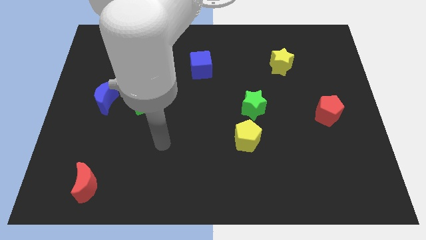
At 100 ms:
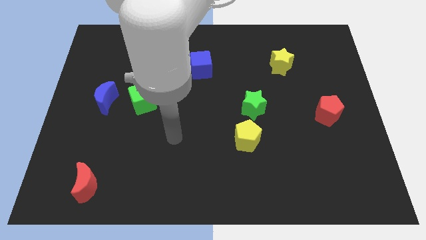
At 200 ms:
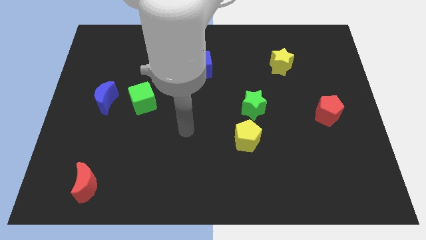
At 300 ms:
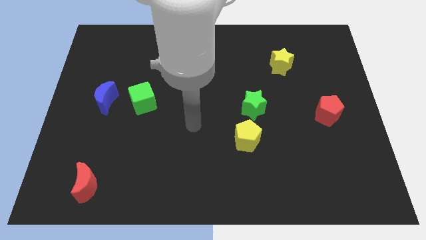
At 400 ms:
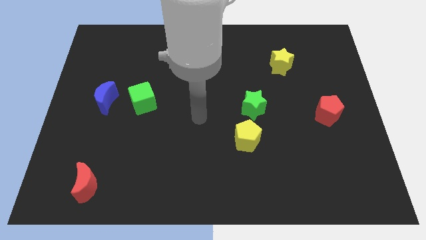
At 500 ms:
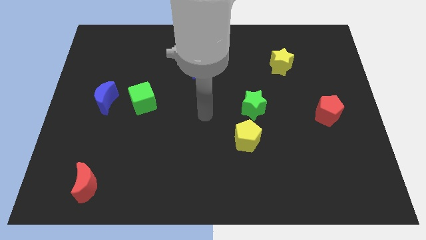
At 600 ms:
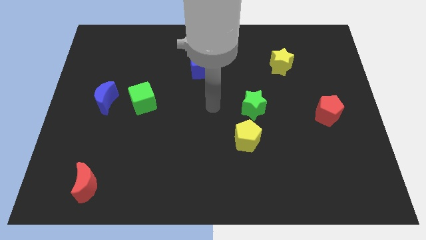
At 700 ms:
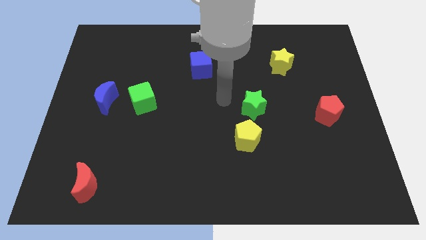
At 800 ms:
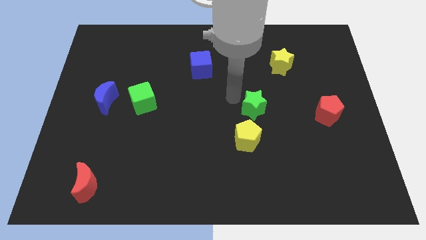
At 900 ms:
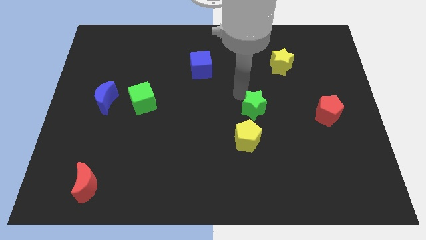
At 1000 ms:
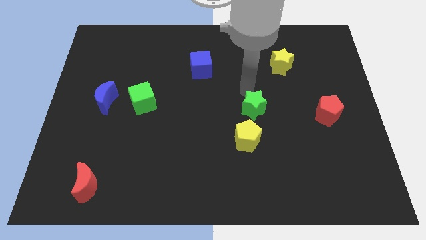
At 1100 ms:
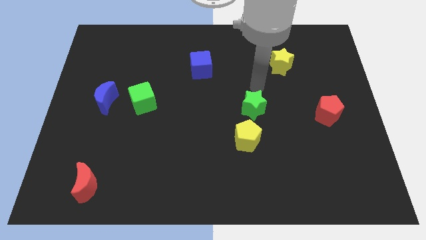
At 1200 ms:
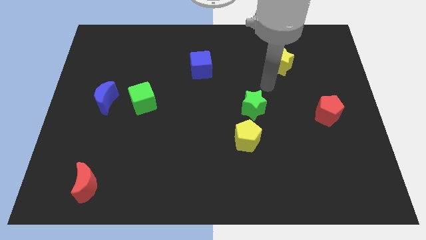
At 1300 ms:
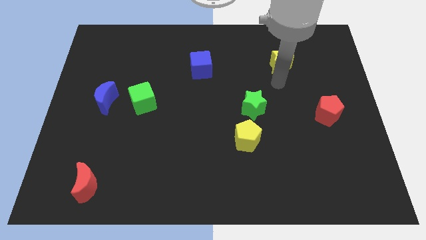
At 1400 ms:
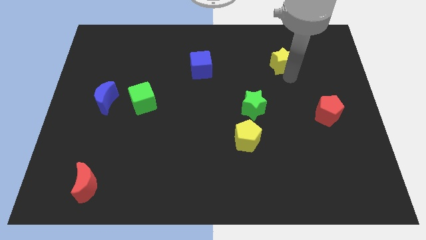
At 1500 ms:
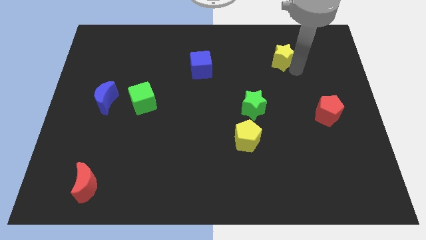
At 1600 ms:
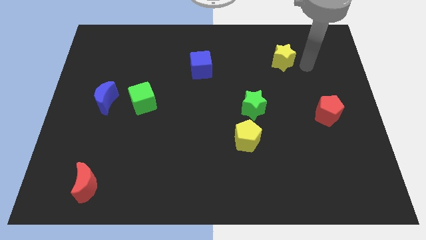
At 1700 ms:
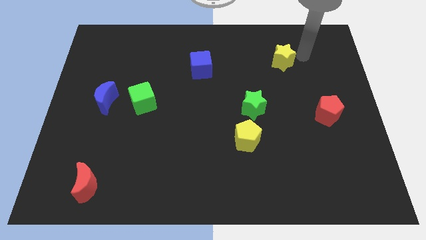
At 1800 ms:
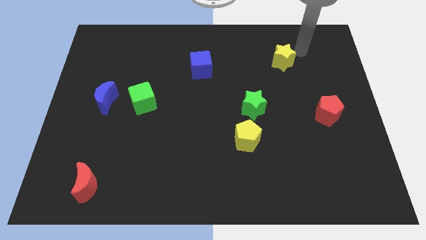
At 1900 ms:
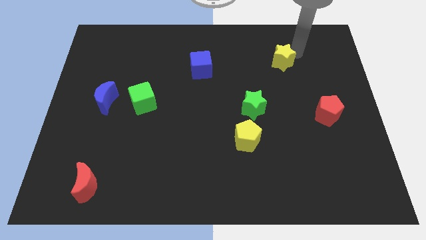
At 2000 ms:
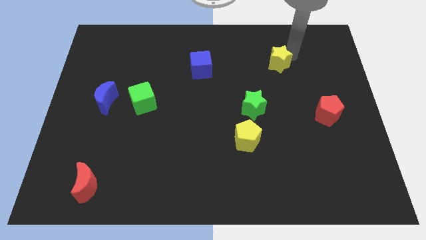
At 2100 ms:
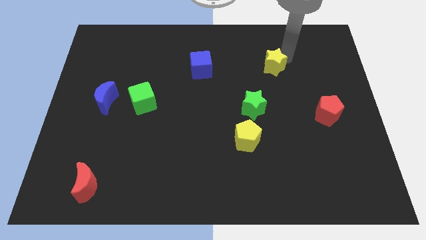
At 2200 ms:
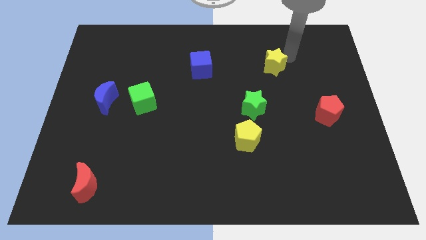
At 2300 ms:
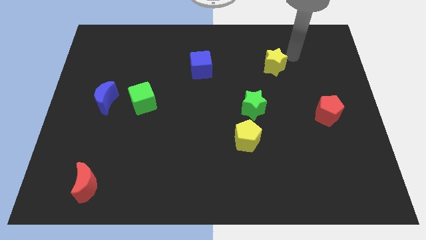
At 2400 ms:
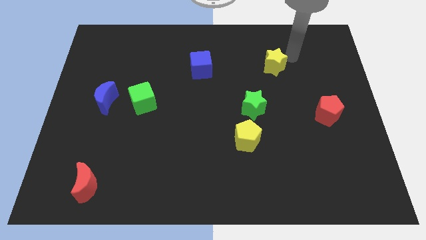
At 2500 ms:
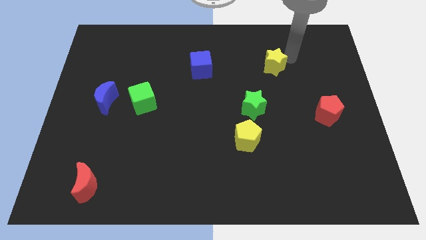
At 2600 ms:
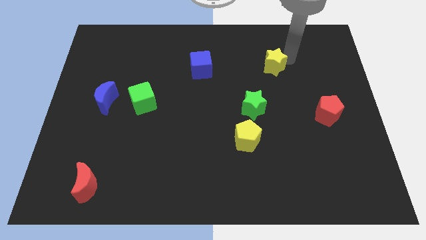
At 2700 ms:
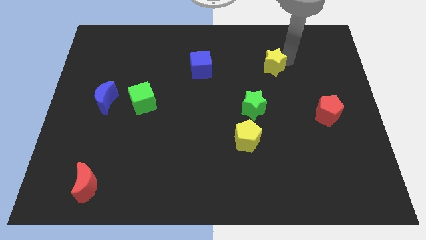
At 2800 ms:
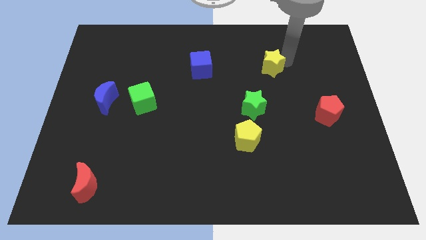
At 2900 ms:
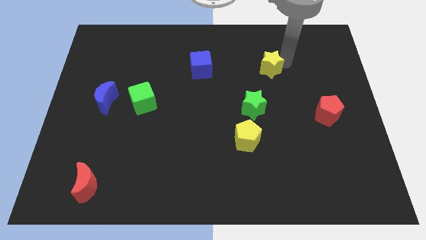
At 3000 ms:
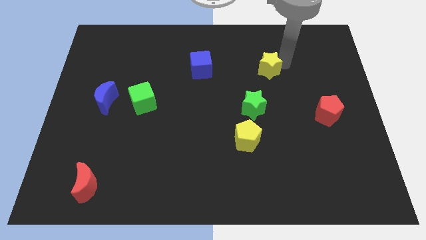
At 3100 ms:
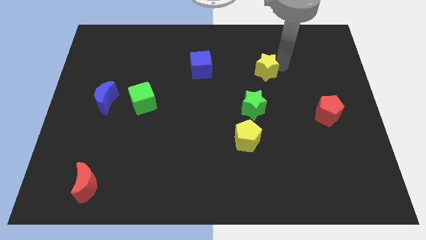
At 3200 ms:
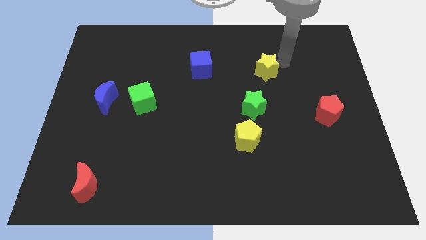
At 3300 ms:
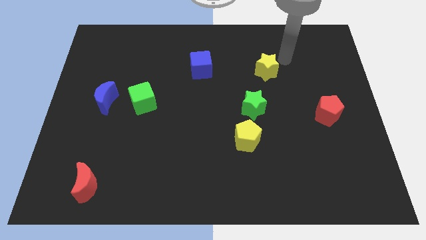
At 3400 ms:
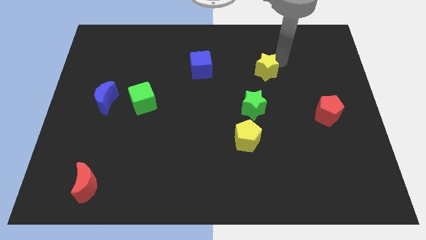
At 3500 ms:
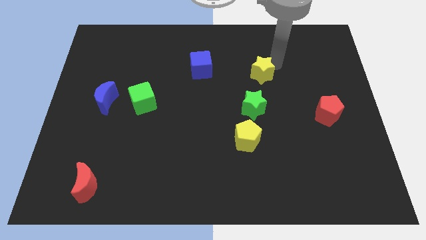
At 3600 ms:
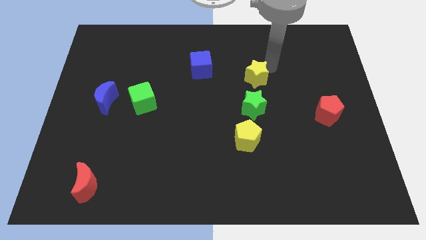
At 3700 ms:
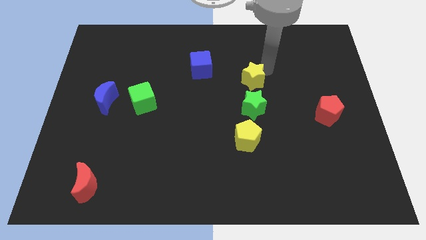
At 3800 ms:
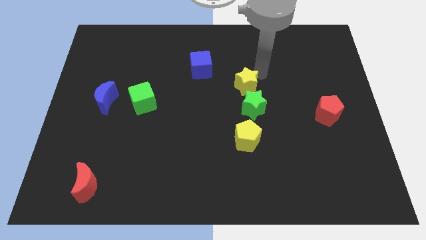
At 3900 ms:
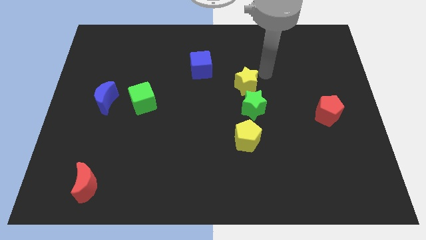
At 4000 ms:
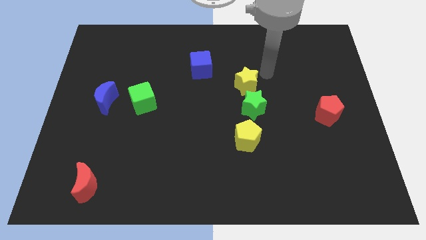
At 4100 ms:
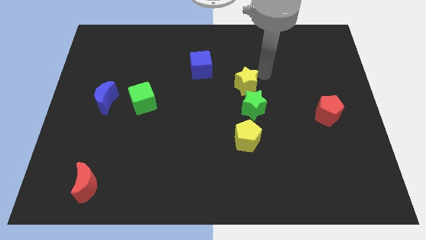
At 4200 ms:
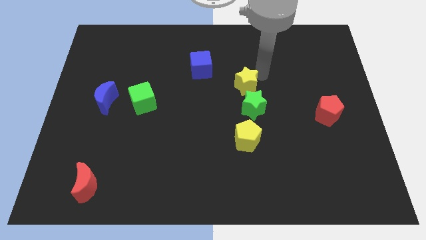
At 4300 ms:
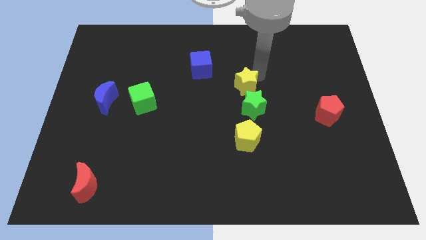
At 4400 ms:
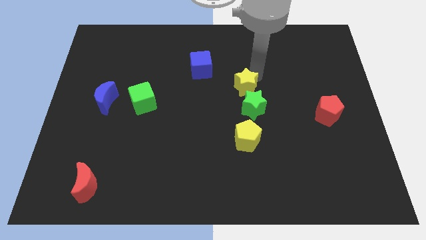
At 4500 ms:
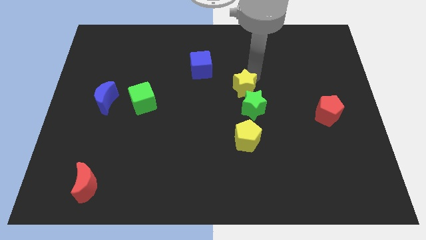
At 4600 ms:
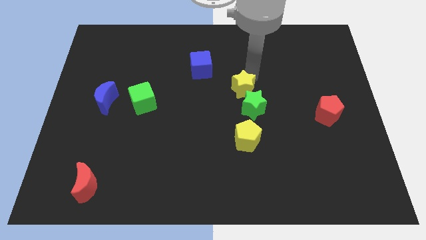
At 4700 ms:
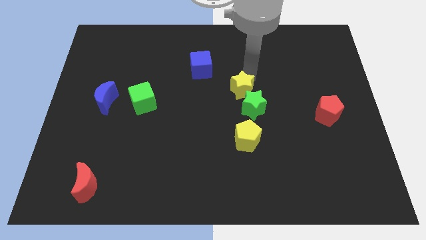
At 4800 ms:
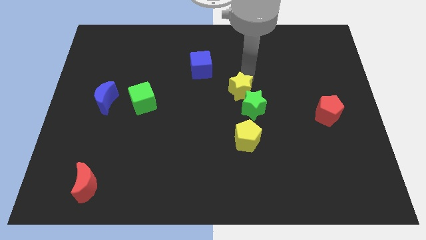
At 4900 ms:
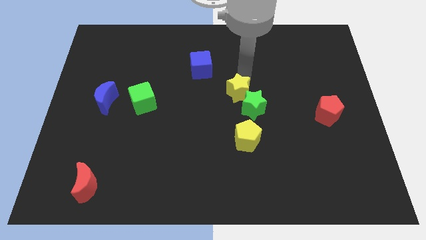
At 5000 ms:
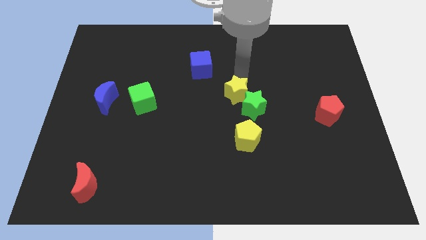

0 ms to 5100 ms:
put the yellow star to the left side of the green star

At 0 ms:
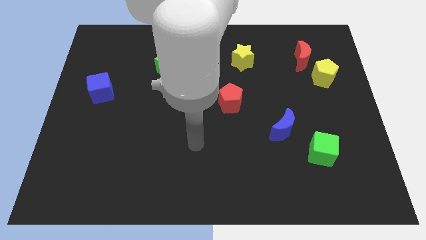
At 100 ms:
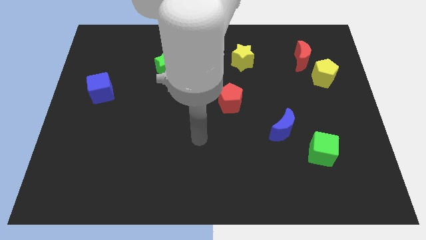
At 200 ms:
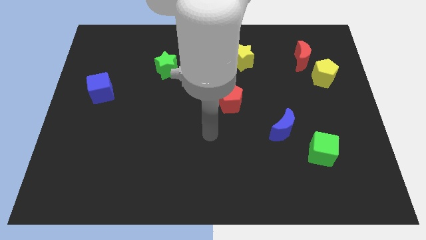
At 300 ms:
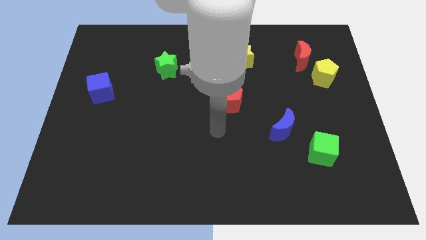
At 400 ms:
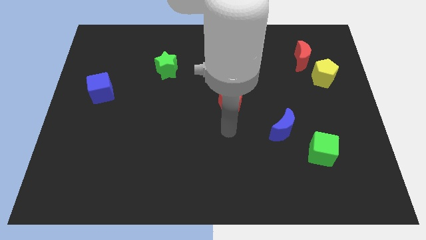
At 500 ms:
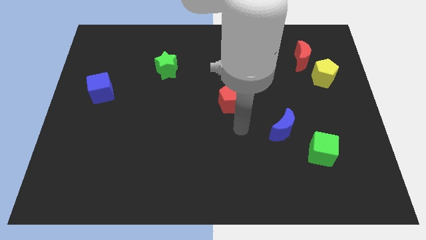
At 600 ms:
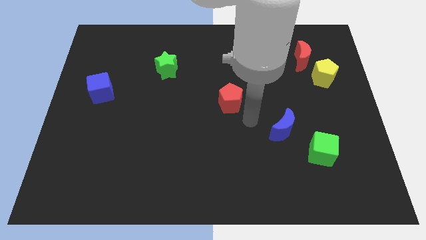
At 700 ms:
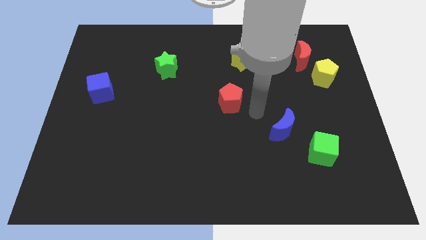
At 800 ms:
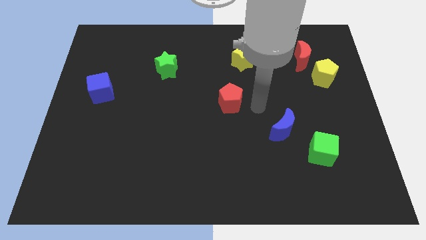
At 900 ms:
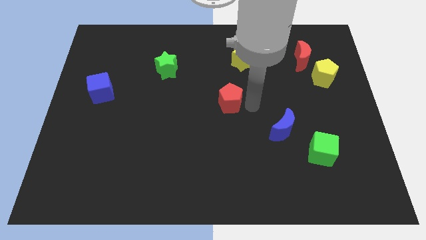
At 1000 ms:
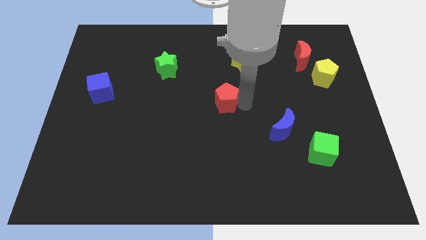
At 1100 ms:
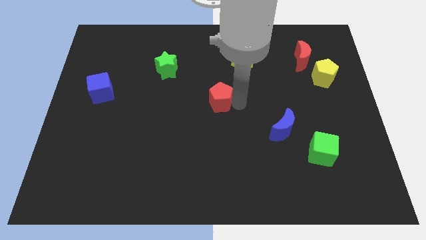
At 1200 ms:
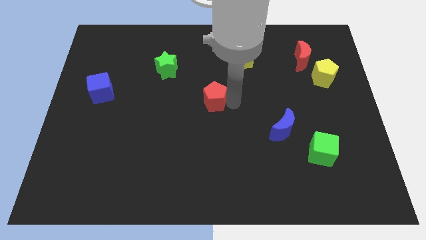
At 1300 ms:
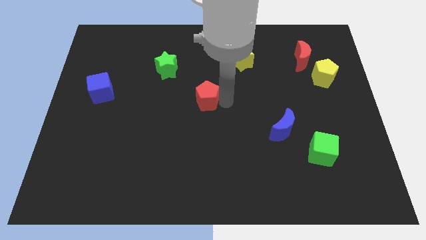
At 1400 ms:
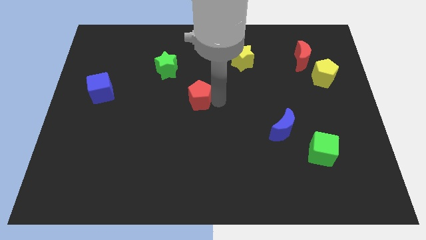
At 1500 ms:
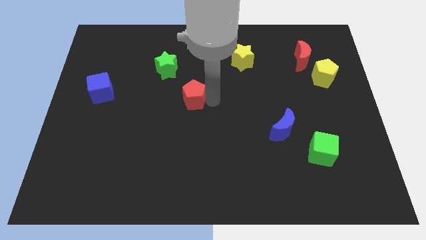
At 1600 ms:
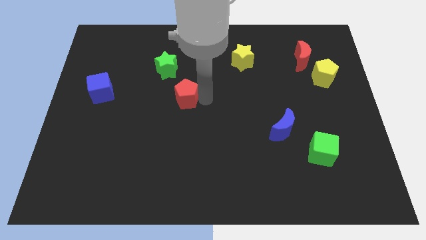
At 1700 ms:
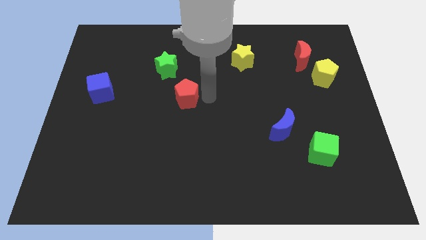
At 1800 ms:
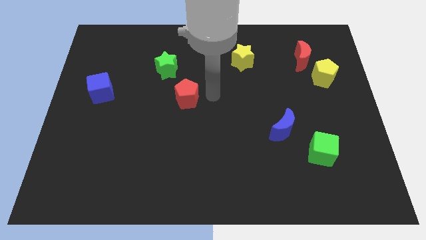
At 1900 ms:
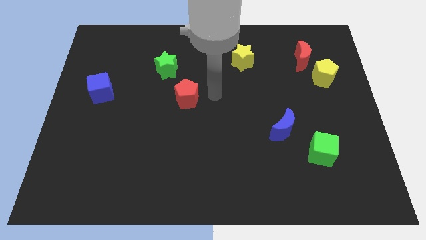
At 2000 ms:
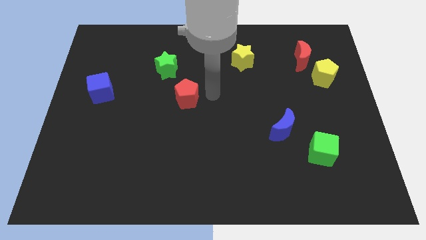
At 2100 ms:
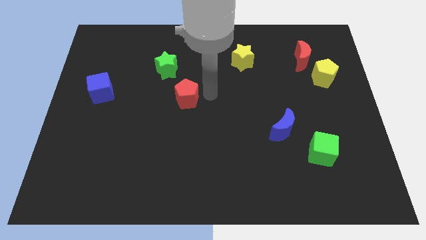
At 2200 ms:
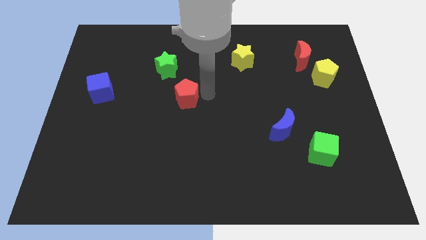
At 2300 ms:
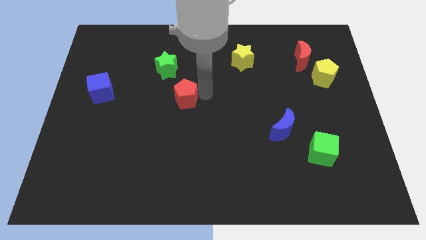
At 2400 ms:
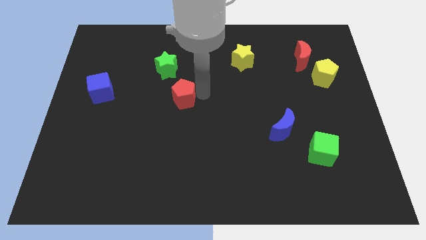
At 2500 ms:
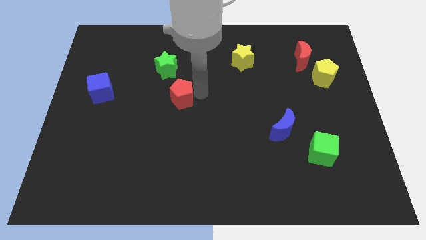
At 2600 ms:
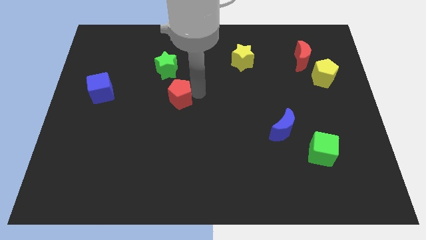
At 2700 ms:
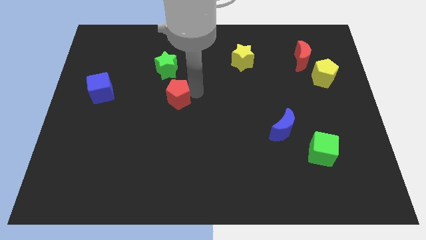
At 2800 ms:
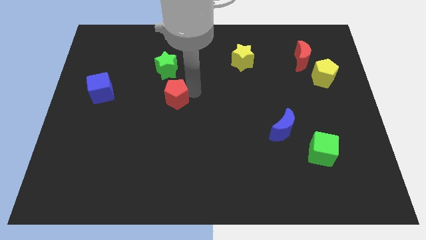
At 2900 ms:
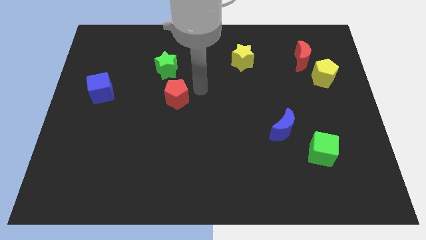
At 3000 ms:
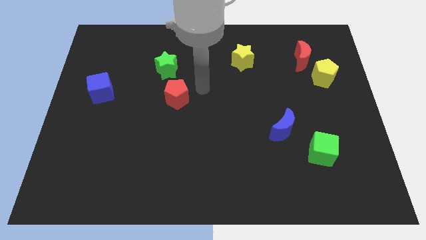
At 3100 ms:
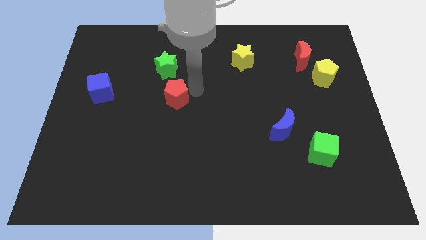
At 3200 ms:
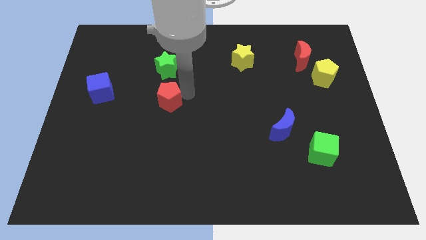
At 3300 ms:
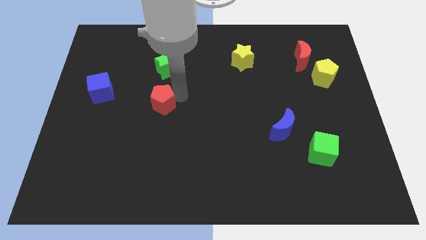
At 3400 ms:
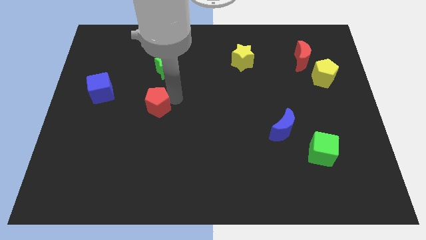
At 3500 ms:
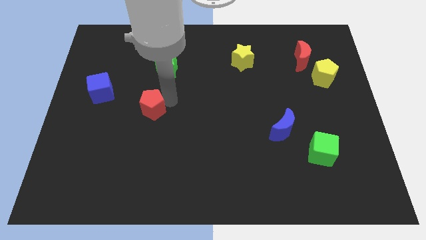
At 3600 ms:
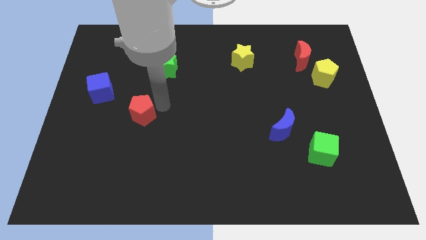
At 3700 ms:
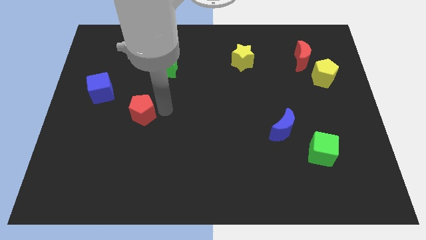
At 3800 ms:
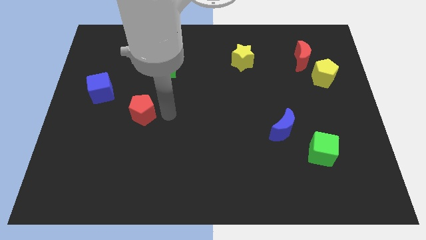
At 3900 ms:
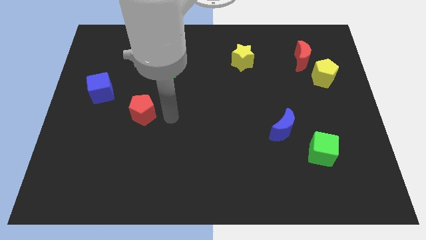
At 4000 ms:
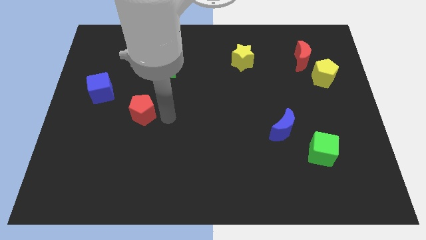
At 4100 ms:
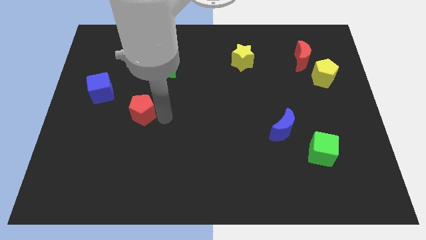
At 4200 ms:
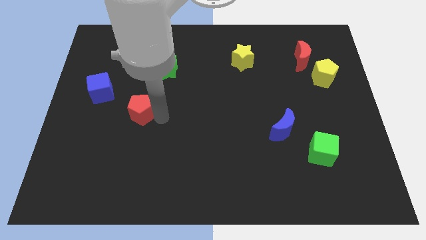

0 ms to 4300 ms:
push the red pentagon diagonally down and to the right of the blue cube
